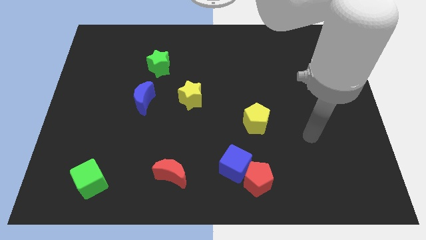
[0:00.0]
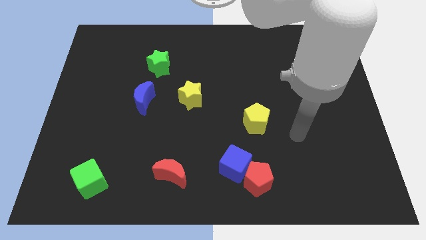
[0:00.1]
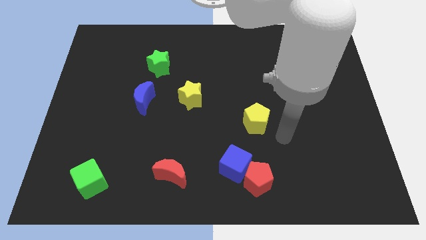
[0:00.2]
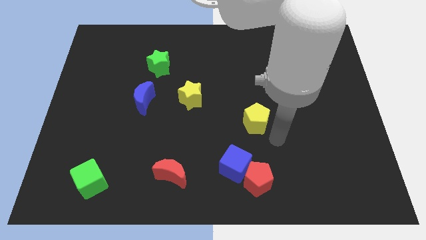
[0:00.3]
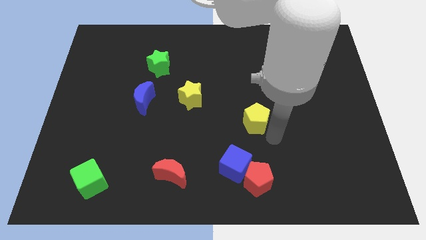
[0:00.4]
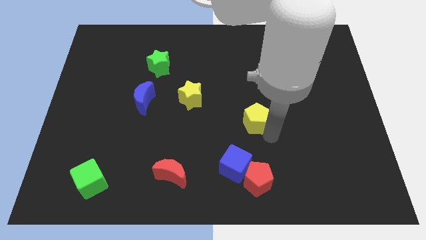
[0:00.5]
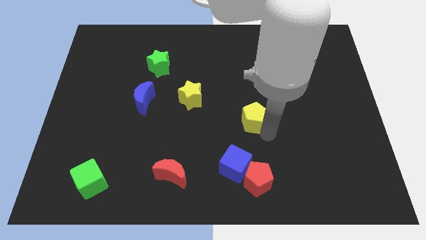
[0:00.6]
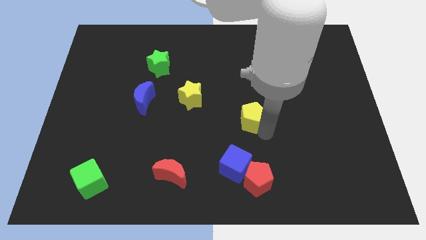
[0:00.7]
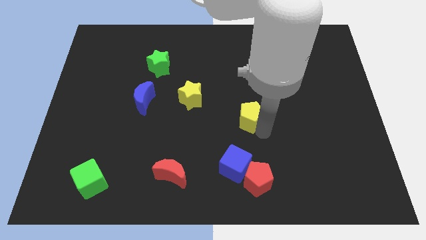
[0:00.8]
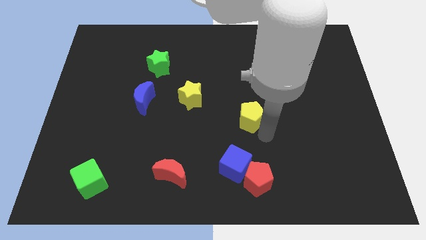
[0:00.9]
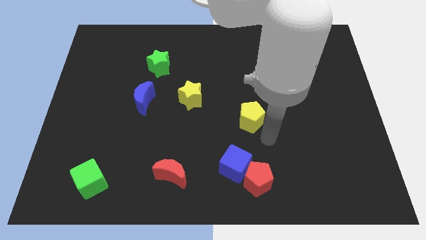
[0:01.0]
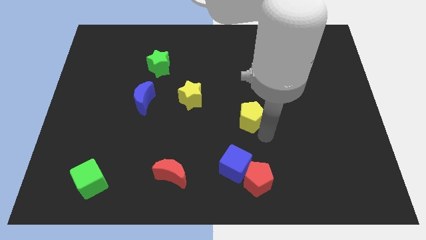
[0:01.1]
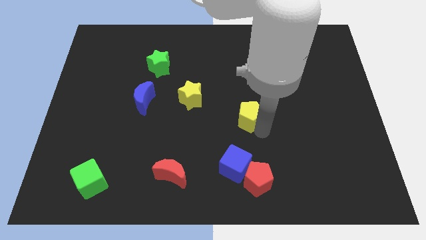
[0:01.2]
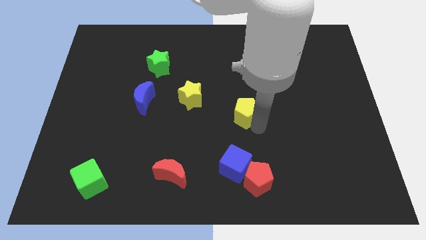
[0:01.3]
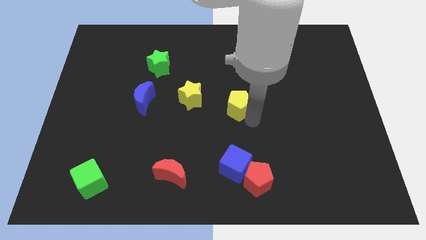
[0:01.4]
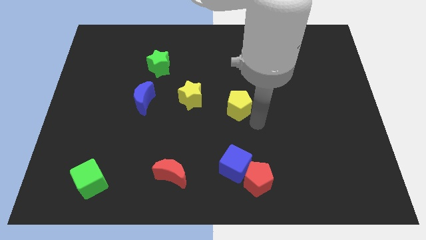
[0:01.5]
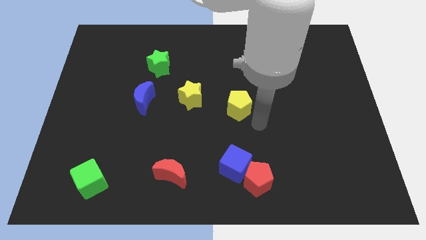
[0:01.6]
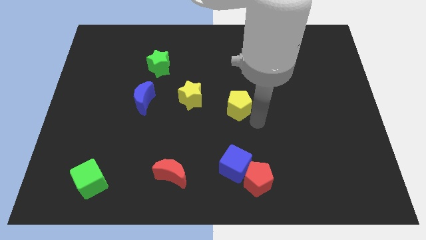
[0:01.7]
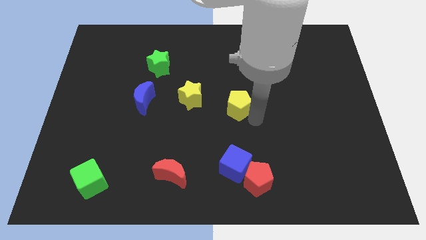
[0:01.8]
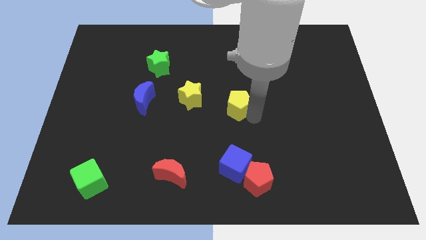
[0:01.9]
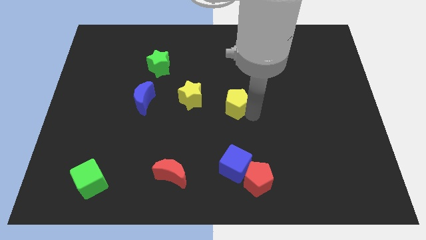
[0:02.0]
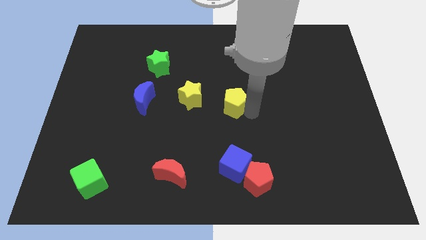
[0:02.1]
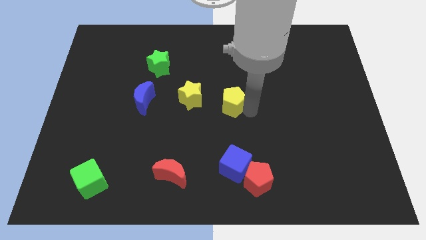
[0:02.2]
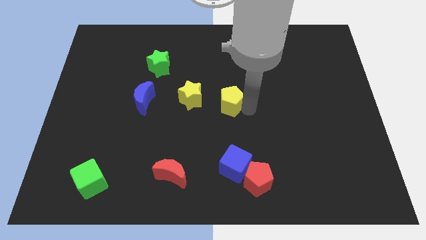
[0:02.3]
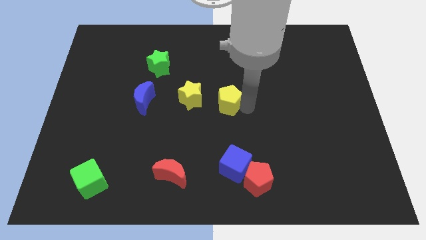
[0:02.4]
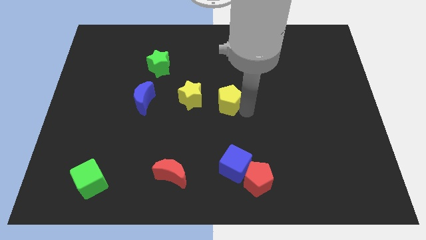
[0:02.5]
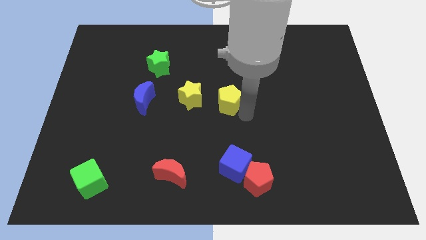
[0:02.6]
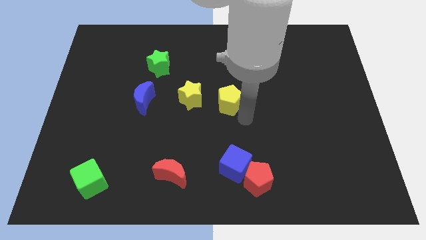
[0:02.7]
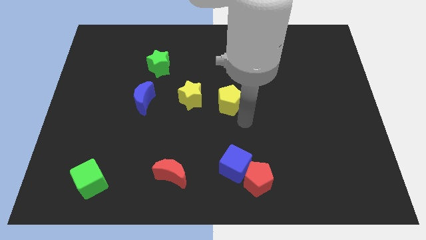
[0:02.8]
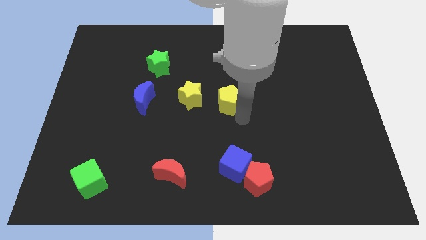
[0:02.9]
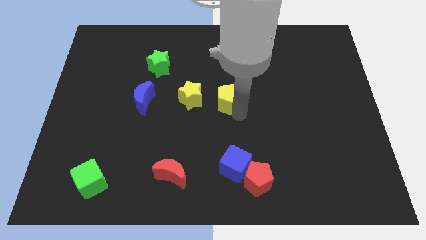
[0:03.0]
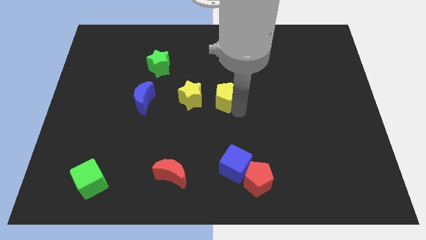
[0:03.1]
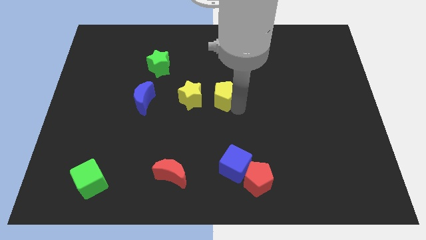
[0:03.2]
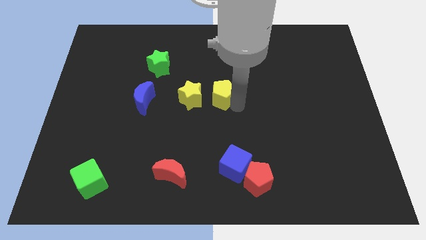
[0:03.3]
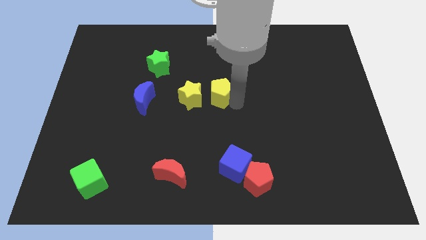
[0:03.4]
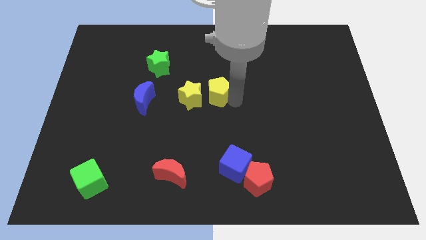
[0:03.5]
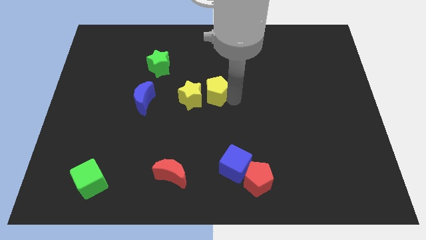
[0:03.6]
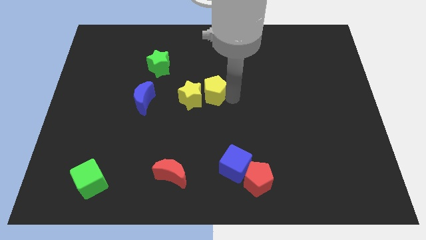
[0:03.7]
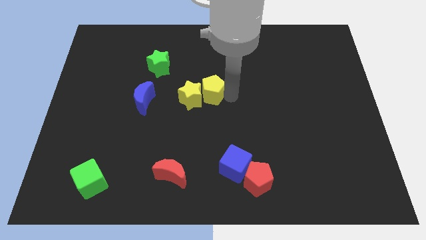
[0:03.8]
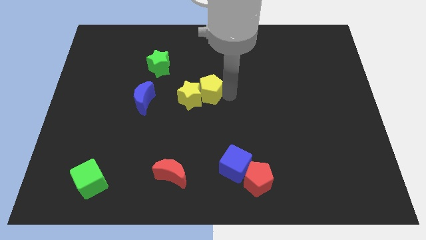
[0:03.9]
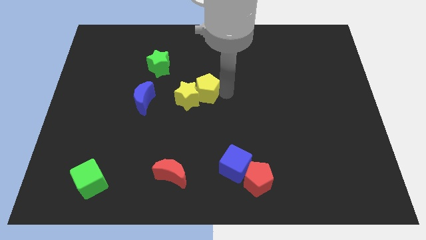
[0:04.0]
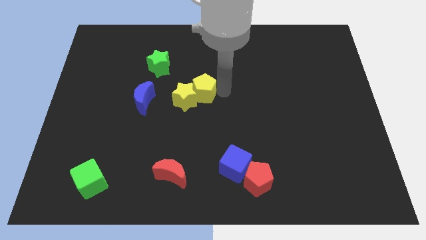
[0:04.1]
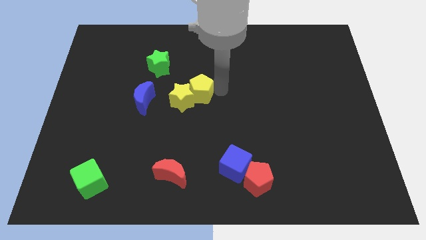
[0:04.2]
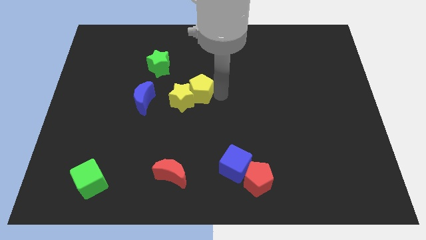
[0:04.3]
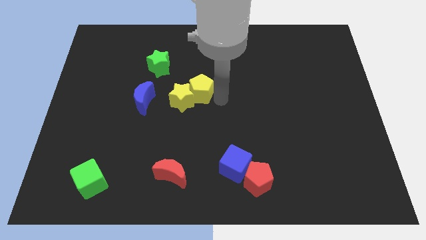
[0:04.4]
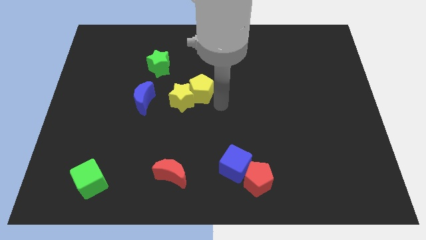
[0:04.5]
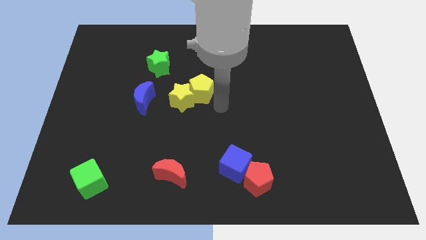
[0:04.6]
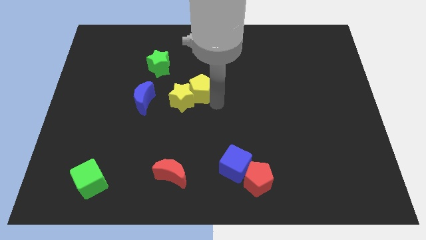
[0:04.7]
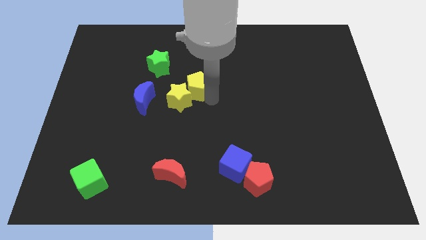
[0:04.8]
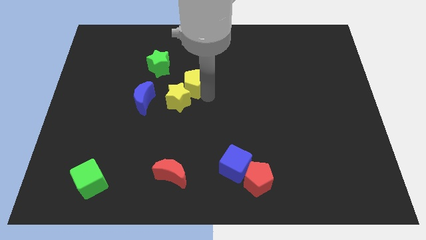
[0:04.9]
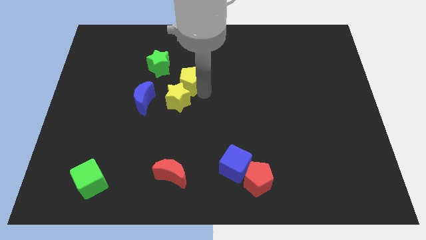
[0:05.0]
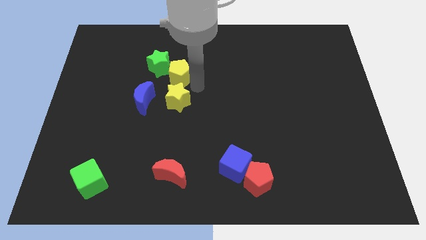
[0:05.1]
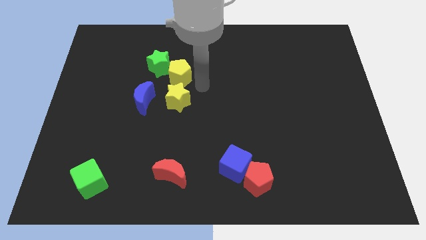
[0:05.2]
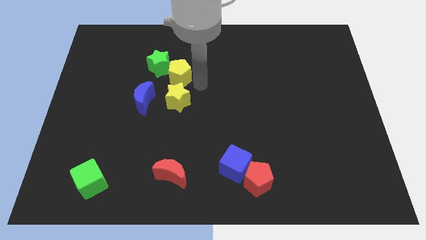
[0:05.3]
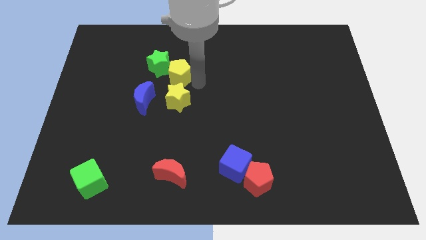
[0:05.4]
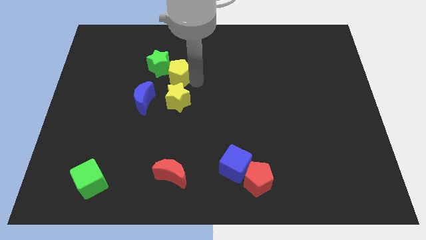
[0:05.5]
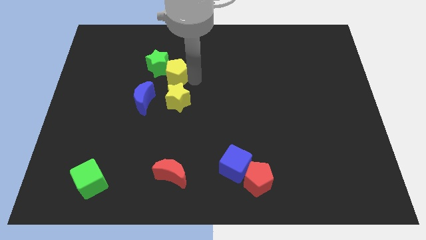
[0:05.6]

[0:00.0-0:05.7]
put the yellow pentagon close to the green star

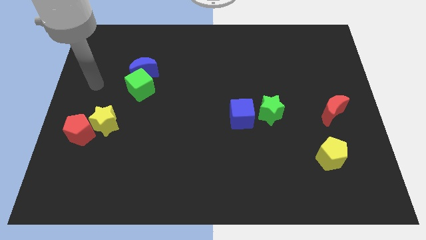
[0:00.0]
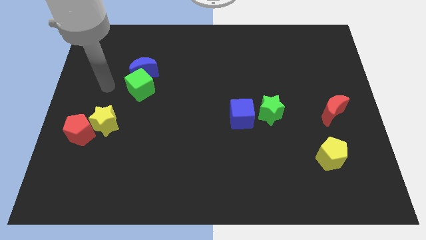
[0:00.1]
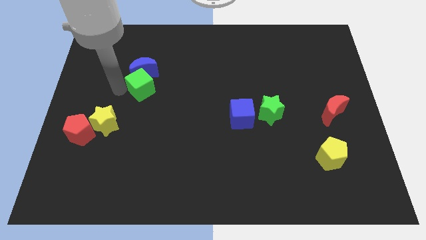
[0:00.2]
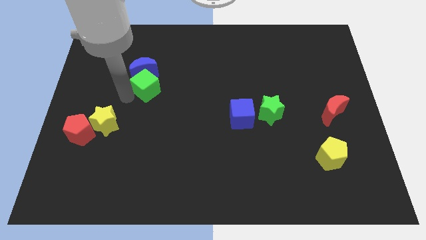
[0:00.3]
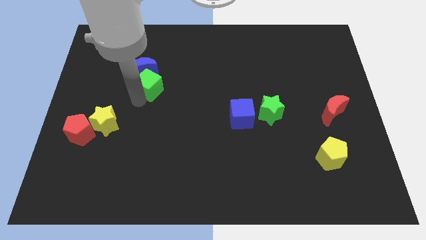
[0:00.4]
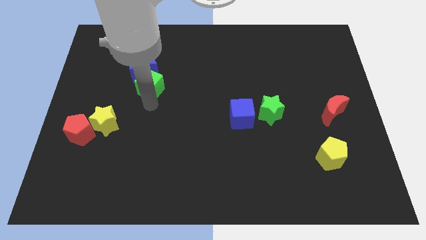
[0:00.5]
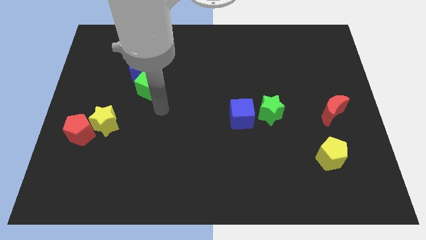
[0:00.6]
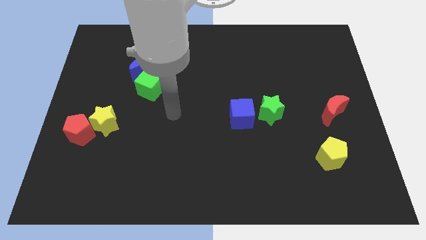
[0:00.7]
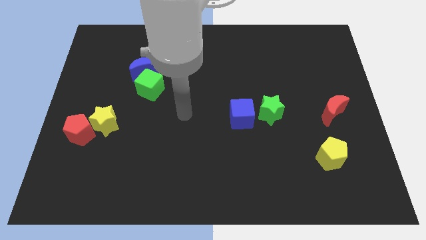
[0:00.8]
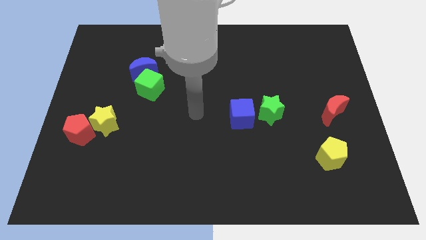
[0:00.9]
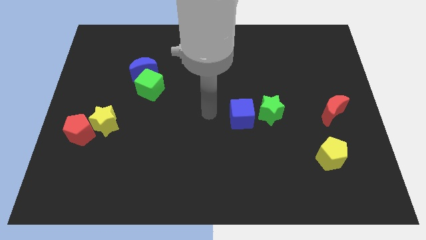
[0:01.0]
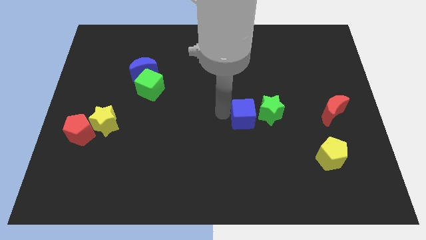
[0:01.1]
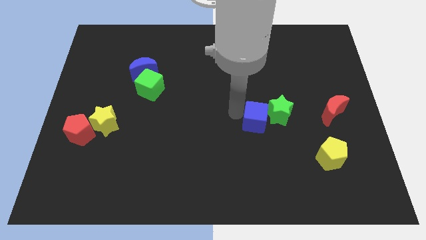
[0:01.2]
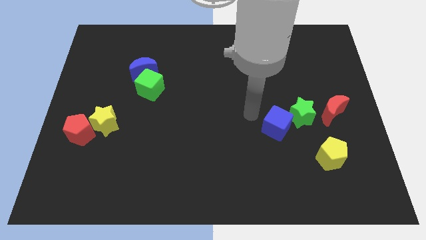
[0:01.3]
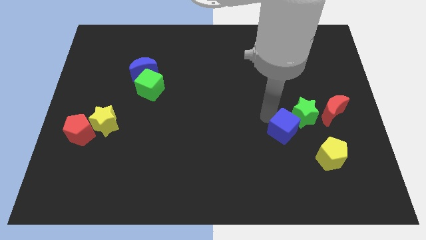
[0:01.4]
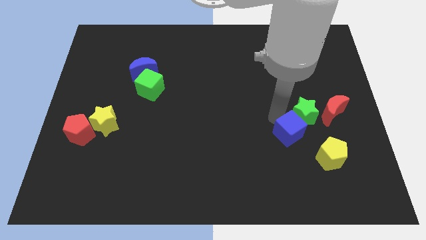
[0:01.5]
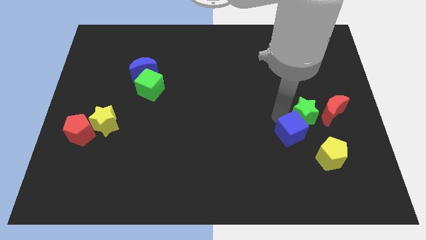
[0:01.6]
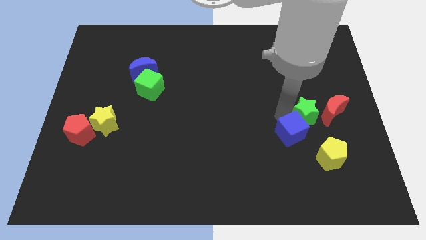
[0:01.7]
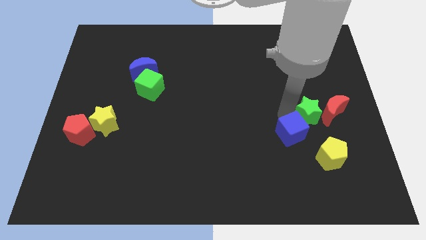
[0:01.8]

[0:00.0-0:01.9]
put the green star next to the red moon
